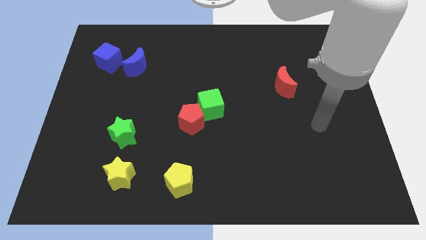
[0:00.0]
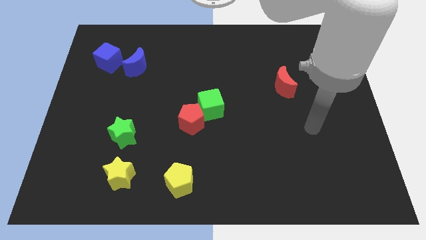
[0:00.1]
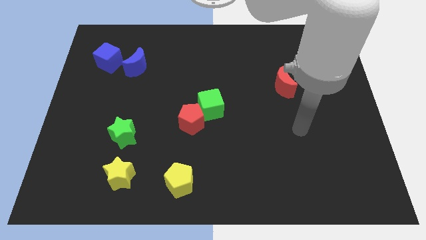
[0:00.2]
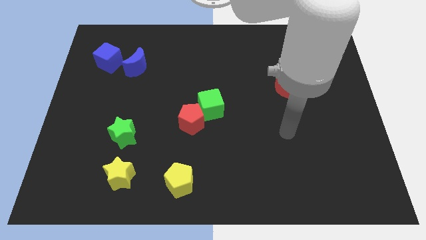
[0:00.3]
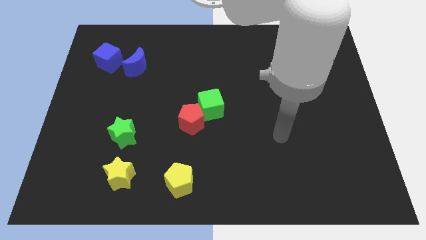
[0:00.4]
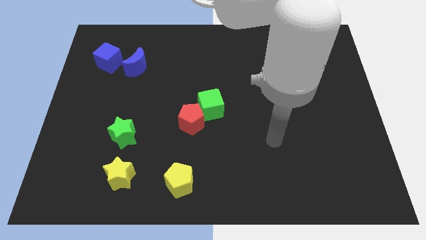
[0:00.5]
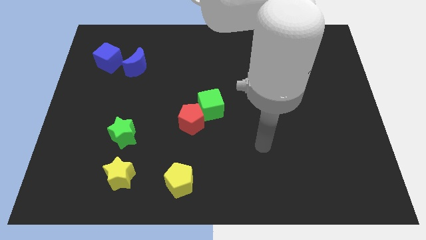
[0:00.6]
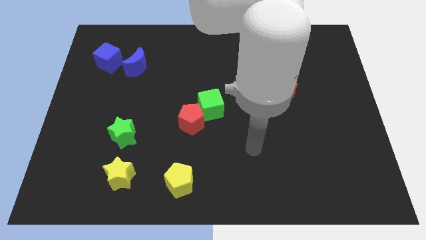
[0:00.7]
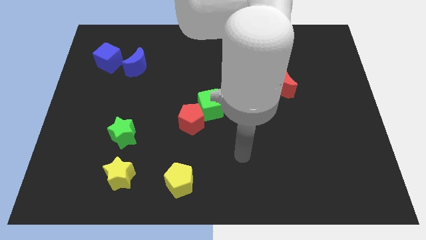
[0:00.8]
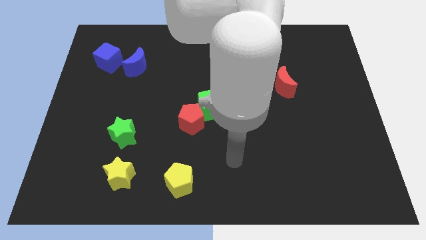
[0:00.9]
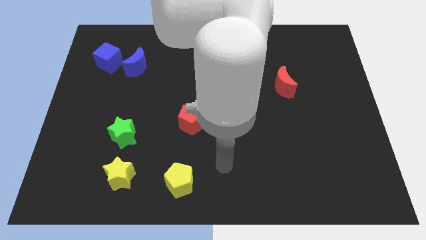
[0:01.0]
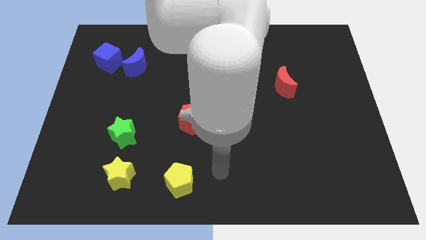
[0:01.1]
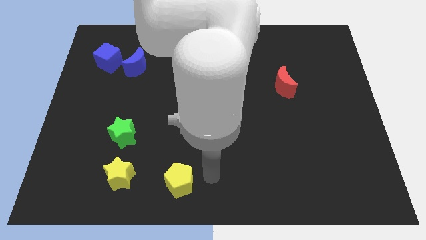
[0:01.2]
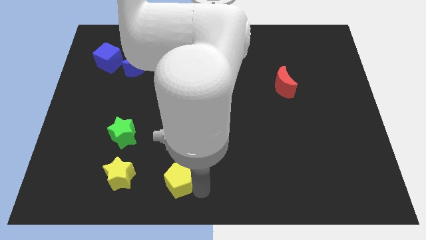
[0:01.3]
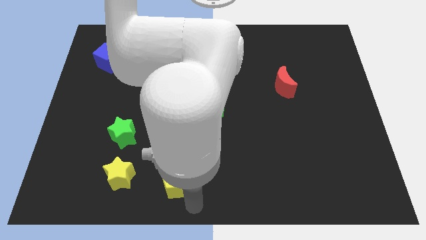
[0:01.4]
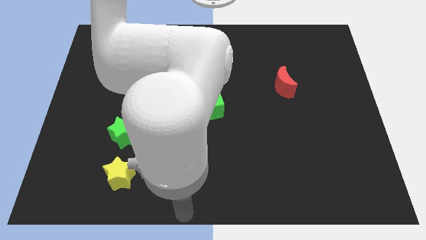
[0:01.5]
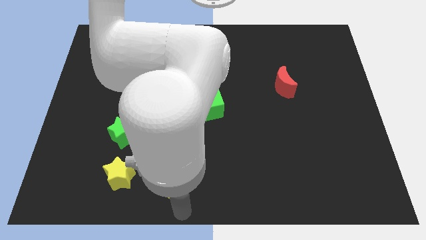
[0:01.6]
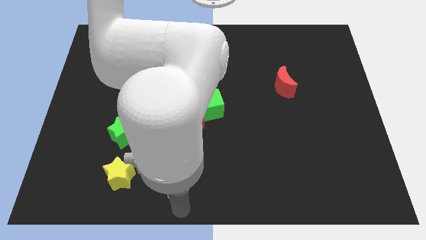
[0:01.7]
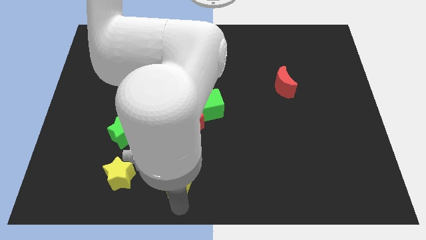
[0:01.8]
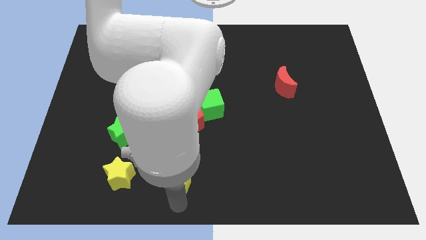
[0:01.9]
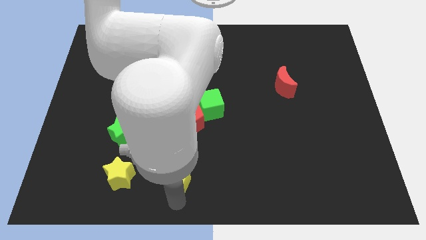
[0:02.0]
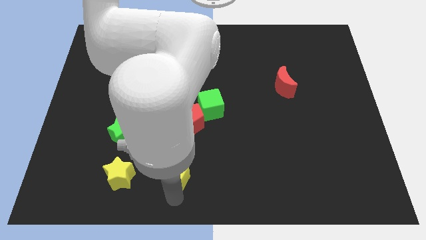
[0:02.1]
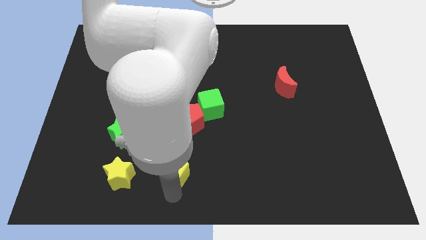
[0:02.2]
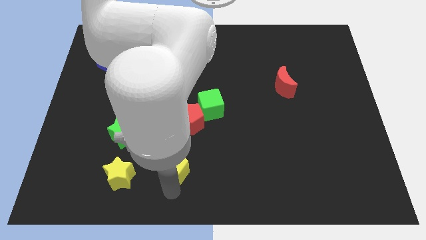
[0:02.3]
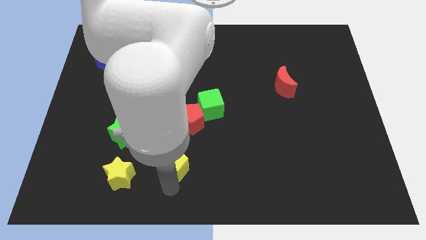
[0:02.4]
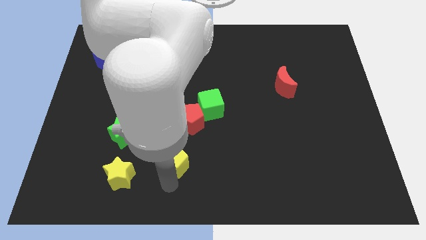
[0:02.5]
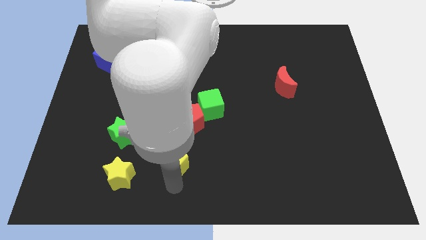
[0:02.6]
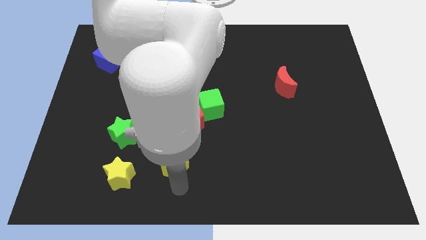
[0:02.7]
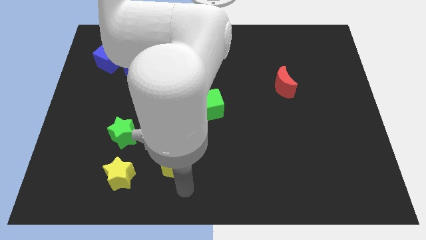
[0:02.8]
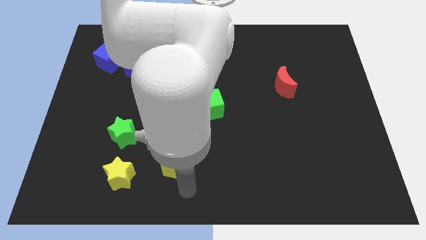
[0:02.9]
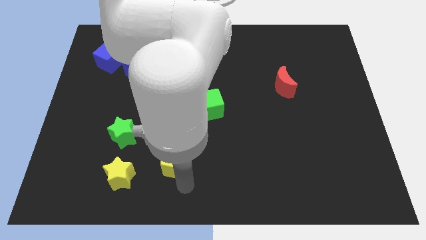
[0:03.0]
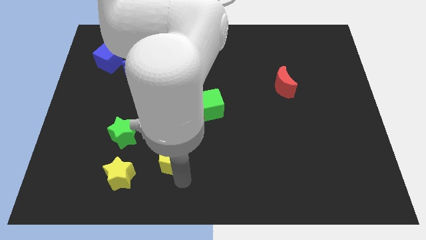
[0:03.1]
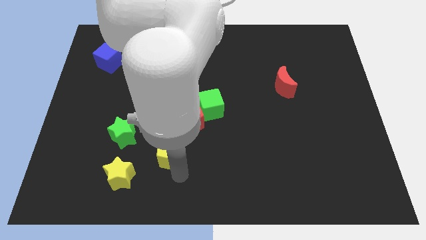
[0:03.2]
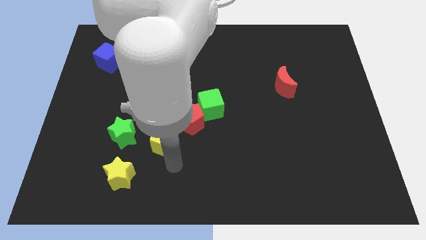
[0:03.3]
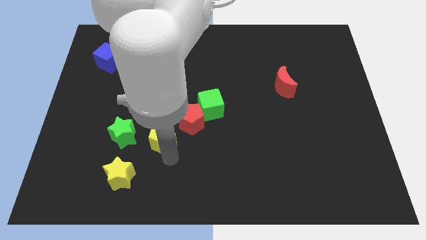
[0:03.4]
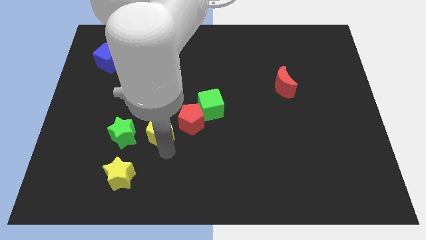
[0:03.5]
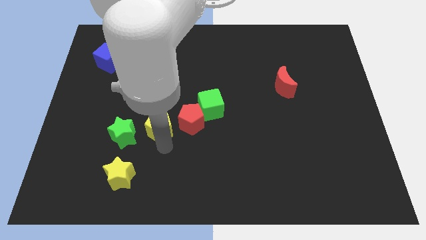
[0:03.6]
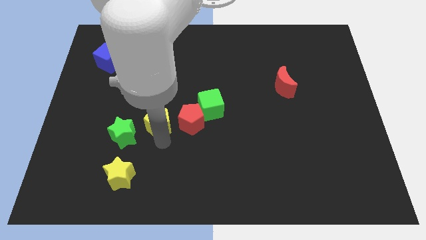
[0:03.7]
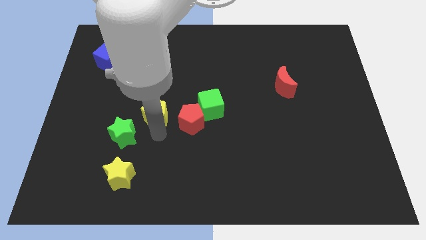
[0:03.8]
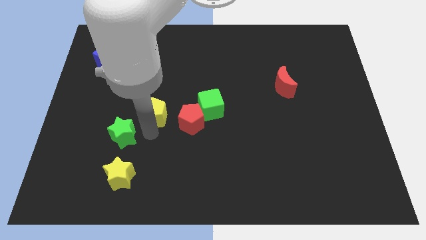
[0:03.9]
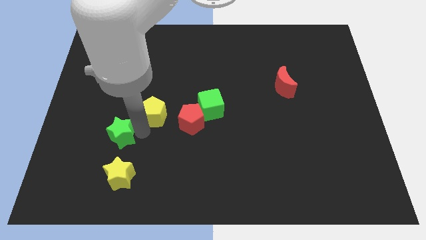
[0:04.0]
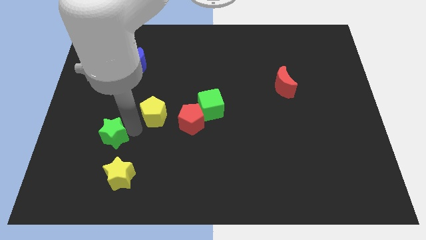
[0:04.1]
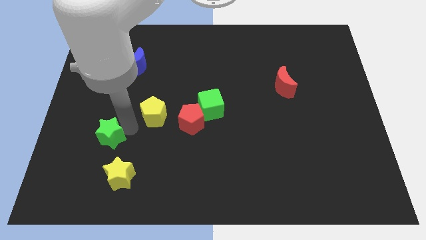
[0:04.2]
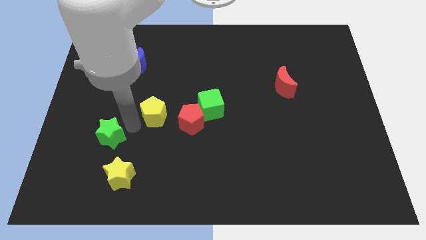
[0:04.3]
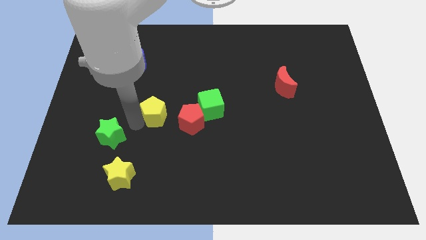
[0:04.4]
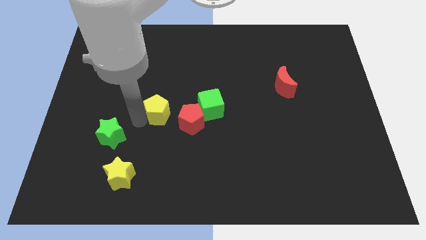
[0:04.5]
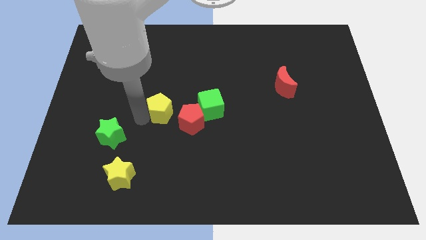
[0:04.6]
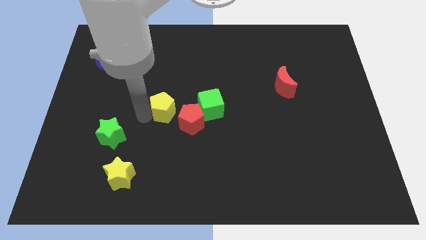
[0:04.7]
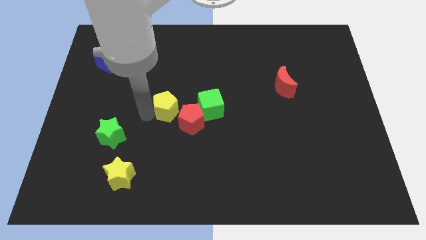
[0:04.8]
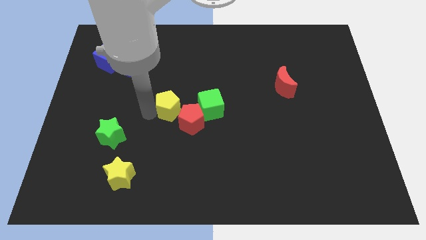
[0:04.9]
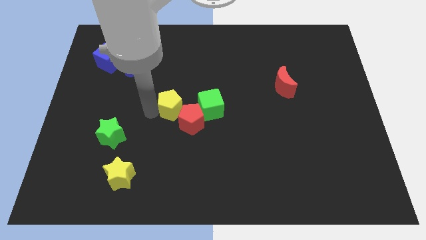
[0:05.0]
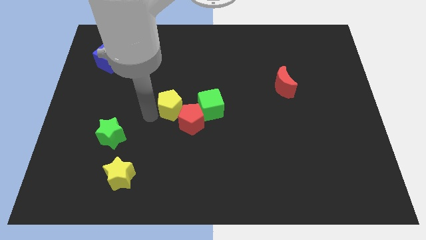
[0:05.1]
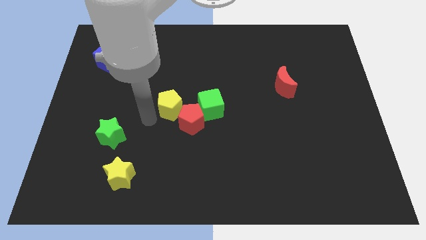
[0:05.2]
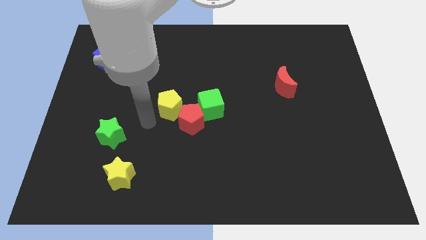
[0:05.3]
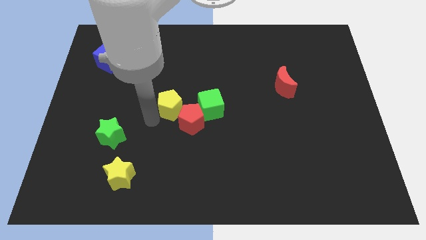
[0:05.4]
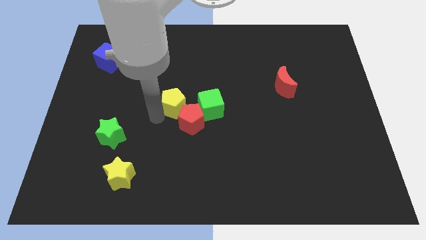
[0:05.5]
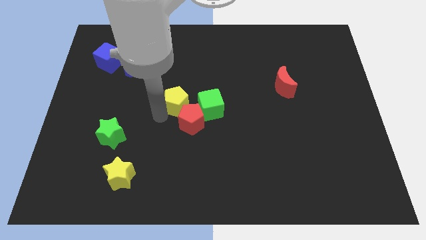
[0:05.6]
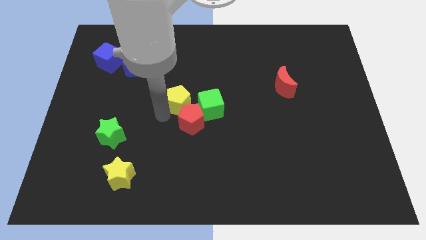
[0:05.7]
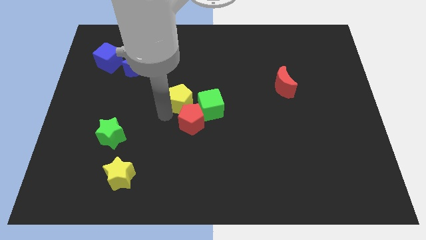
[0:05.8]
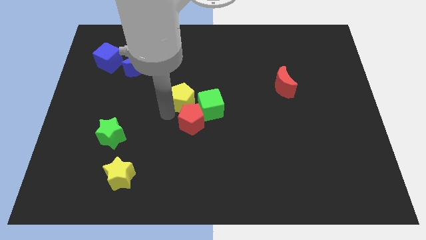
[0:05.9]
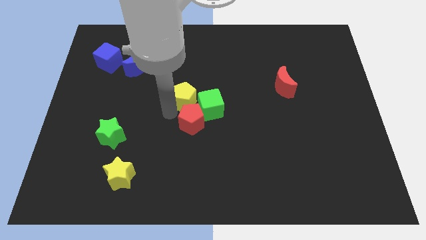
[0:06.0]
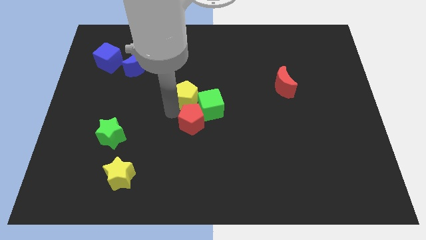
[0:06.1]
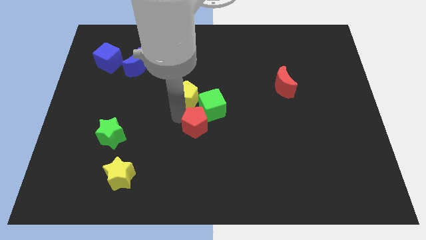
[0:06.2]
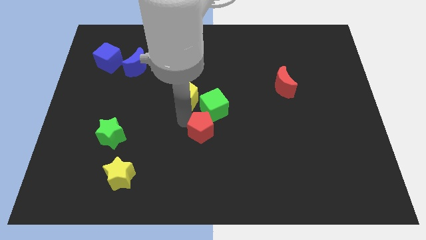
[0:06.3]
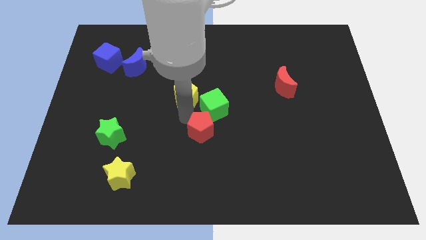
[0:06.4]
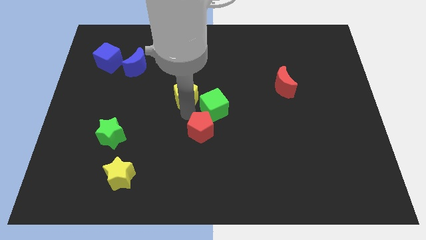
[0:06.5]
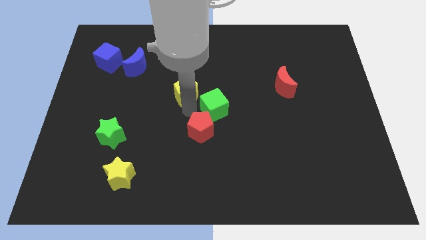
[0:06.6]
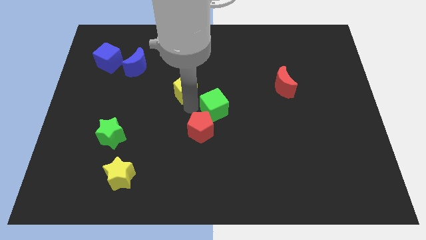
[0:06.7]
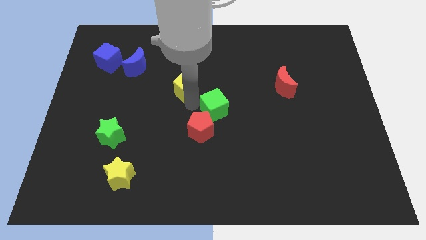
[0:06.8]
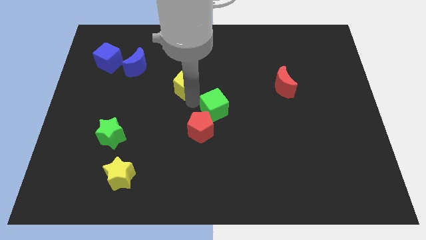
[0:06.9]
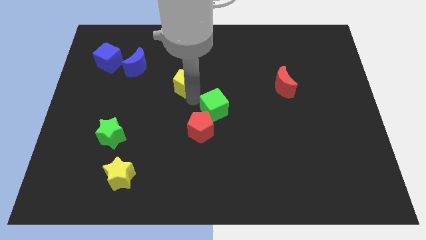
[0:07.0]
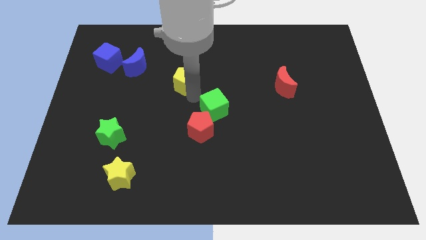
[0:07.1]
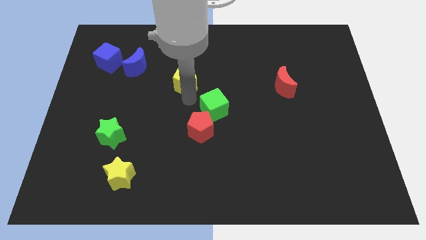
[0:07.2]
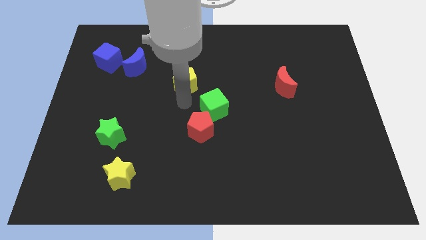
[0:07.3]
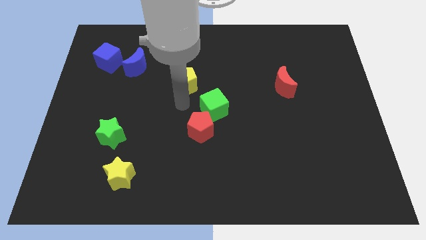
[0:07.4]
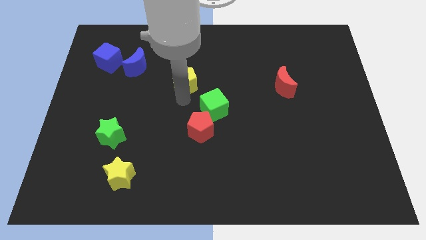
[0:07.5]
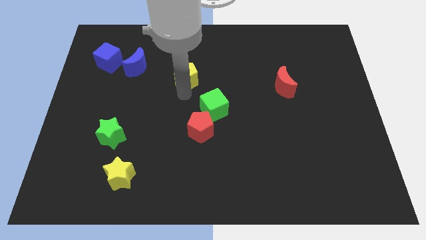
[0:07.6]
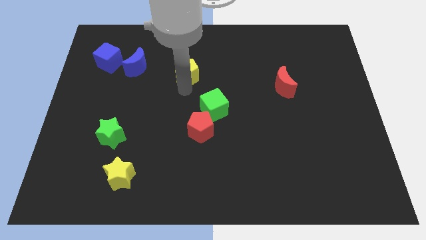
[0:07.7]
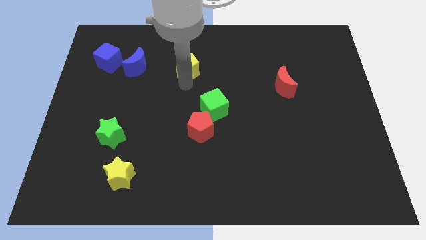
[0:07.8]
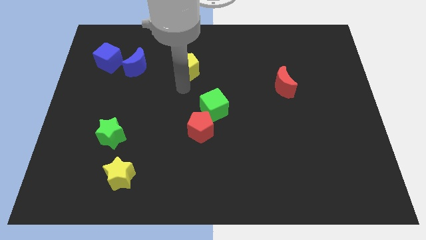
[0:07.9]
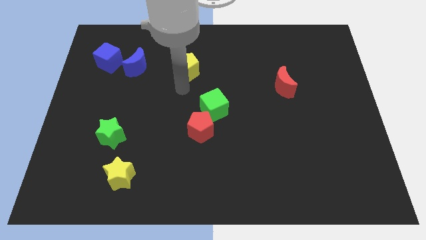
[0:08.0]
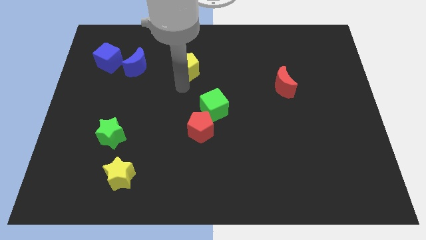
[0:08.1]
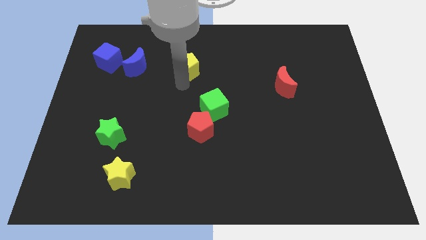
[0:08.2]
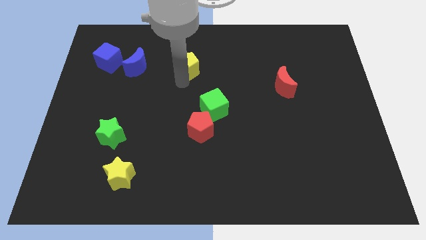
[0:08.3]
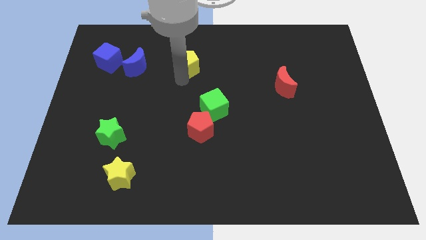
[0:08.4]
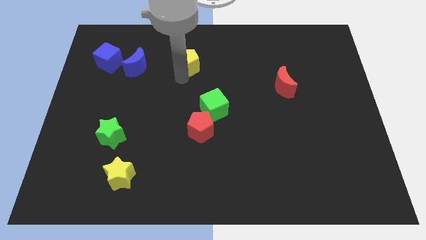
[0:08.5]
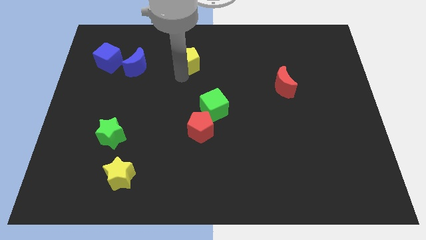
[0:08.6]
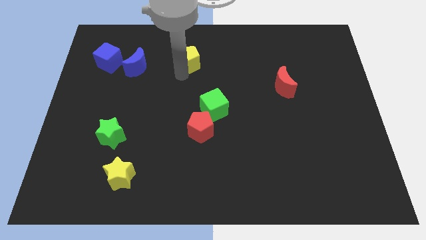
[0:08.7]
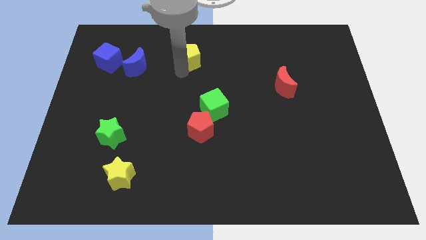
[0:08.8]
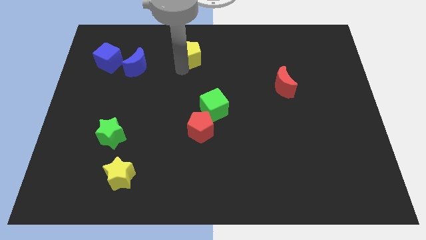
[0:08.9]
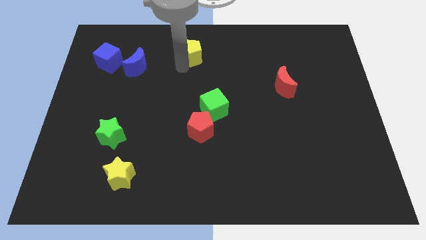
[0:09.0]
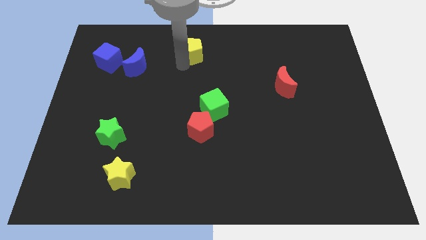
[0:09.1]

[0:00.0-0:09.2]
move the yellow pentagon to the top side
